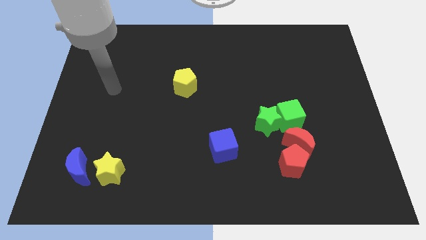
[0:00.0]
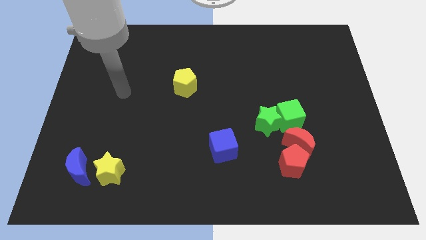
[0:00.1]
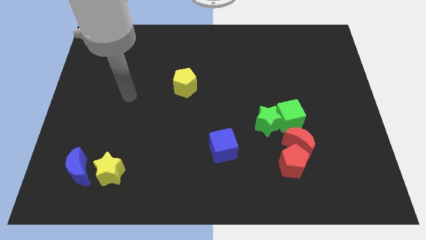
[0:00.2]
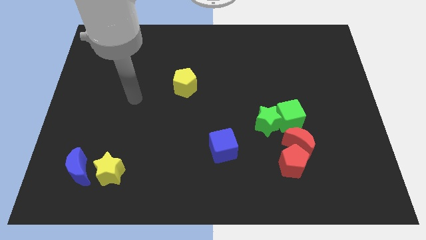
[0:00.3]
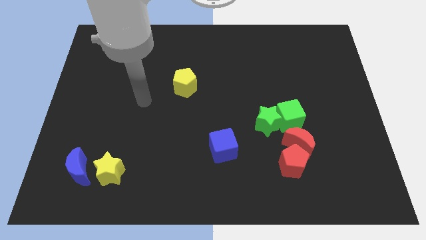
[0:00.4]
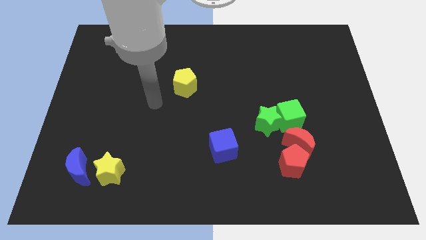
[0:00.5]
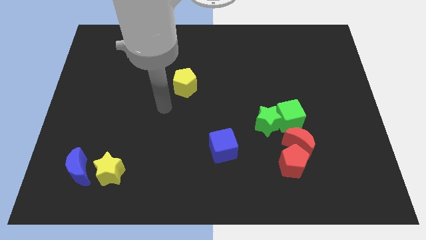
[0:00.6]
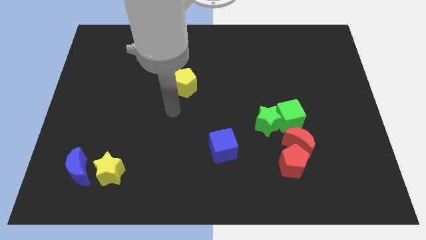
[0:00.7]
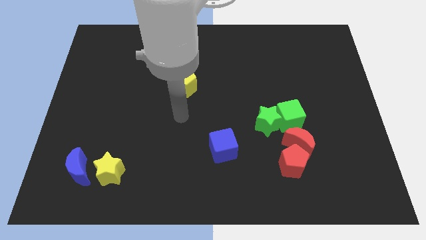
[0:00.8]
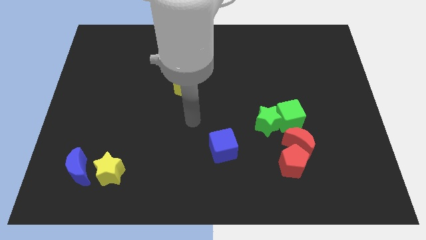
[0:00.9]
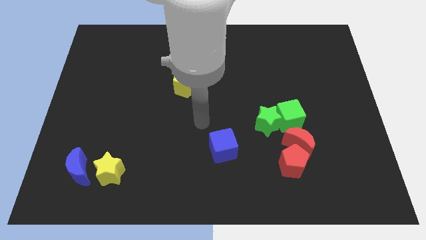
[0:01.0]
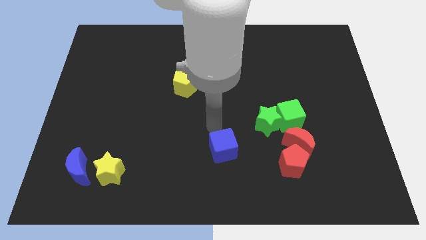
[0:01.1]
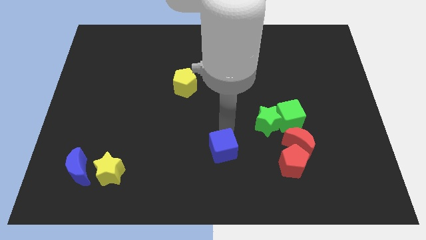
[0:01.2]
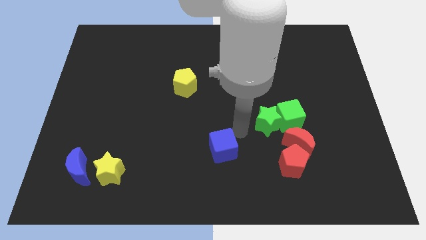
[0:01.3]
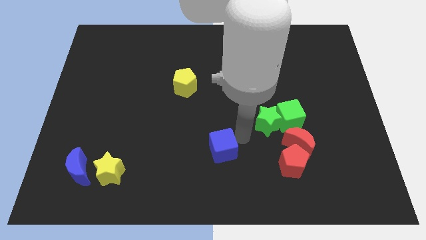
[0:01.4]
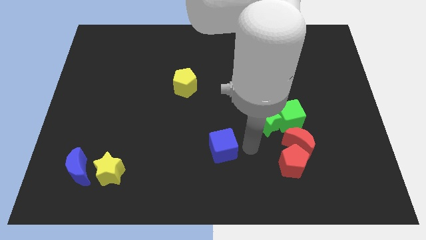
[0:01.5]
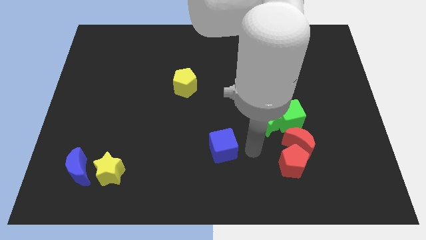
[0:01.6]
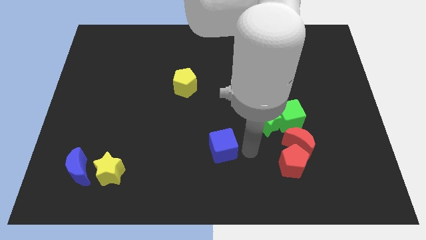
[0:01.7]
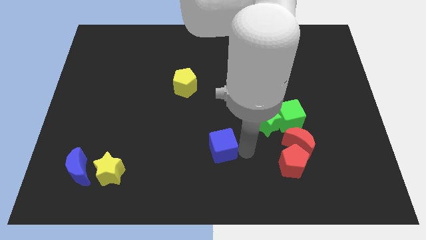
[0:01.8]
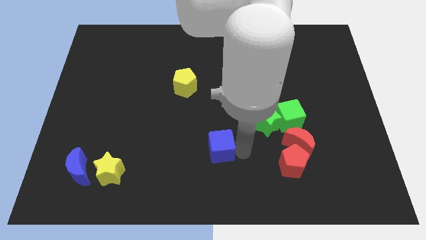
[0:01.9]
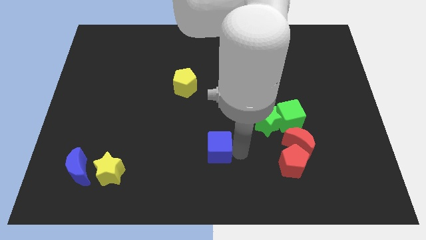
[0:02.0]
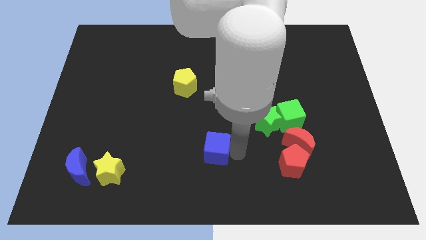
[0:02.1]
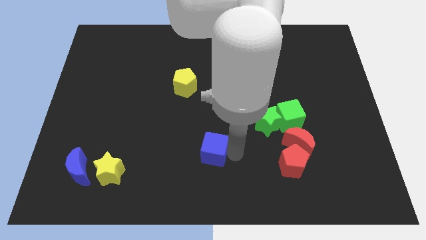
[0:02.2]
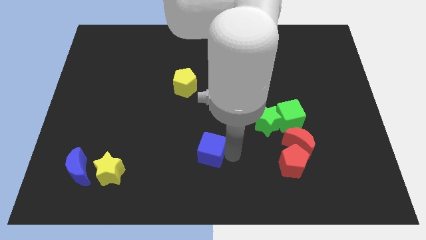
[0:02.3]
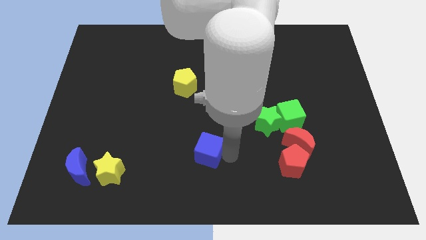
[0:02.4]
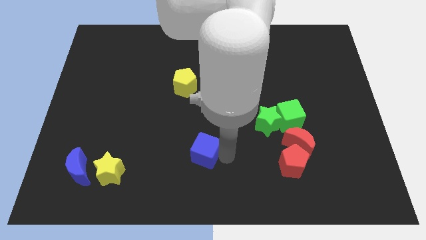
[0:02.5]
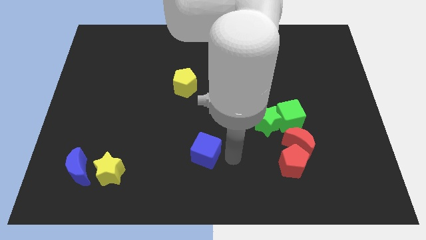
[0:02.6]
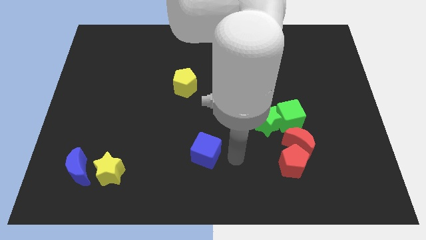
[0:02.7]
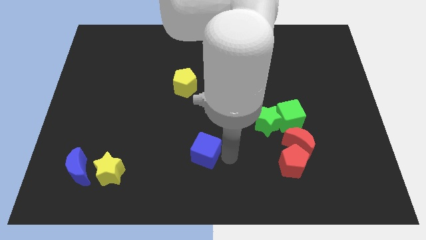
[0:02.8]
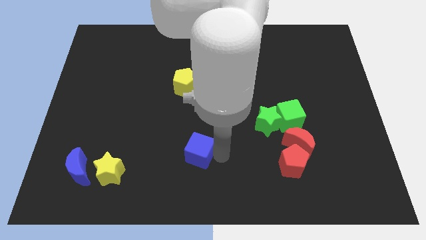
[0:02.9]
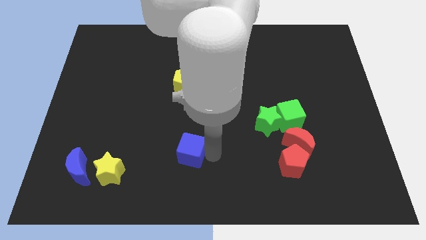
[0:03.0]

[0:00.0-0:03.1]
move the blue cube a little bit left

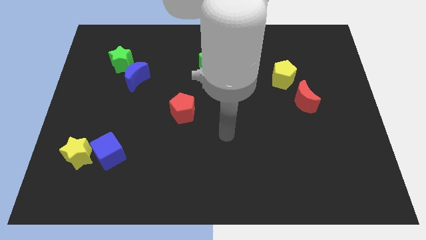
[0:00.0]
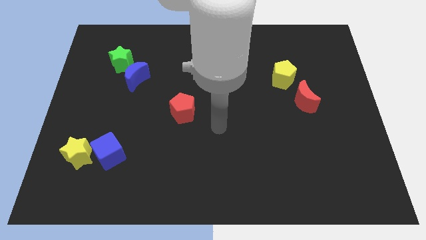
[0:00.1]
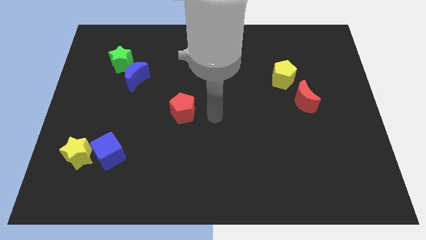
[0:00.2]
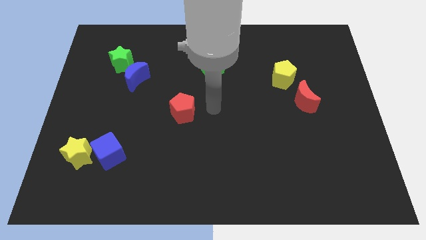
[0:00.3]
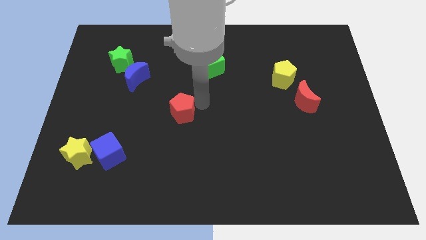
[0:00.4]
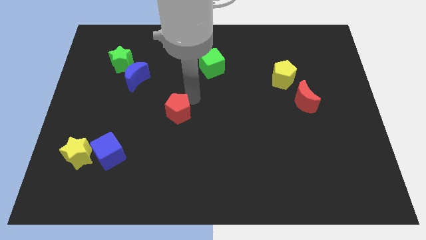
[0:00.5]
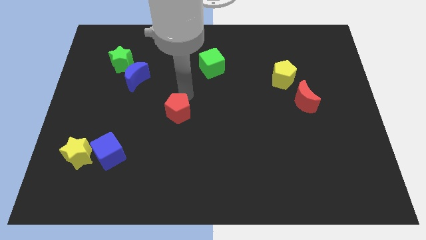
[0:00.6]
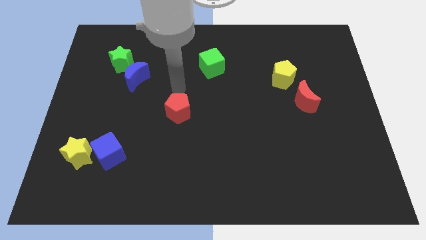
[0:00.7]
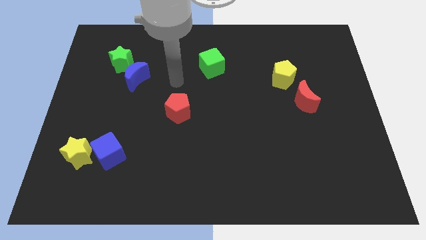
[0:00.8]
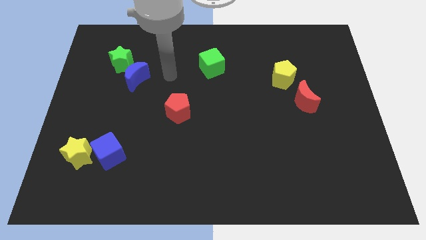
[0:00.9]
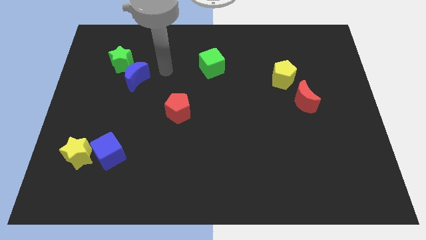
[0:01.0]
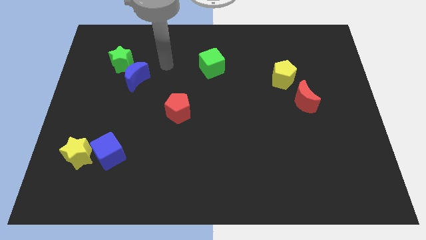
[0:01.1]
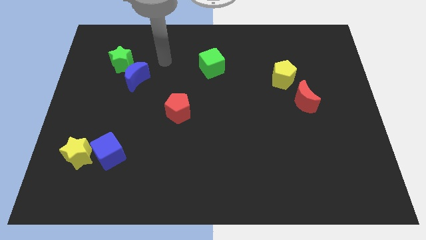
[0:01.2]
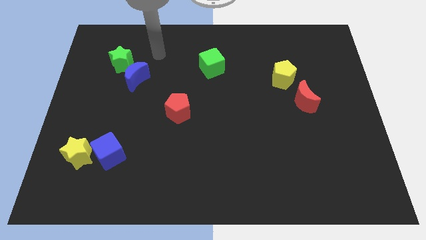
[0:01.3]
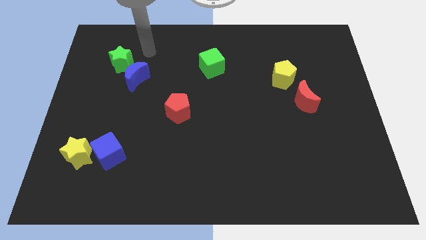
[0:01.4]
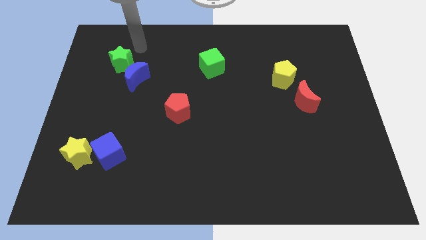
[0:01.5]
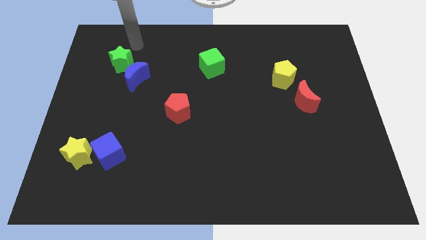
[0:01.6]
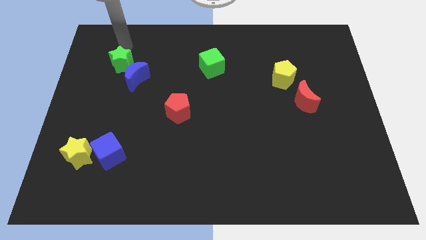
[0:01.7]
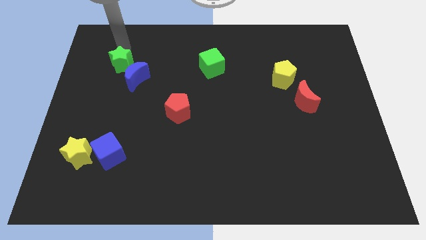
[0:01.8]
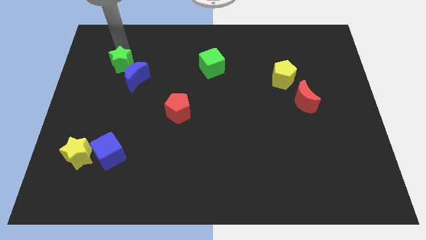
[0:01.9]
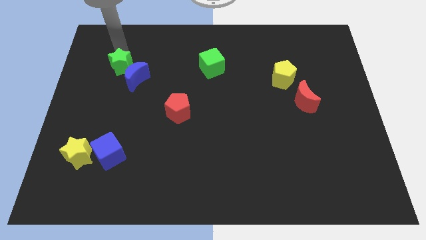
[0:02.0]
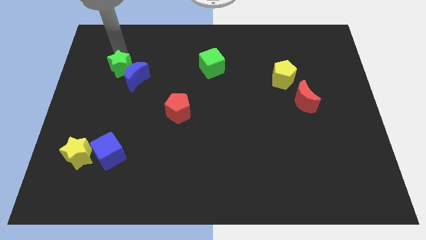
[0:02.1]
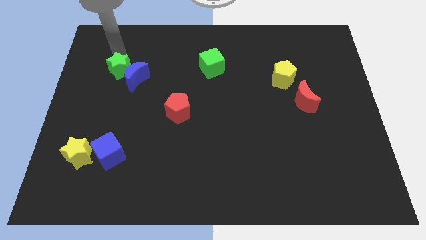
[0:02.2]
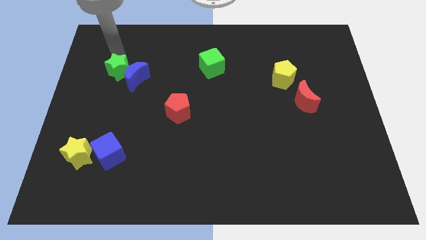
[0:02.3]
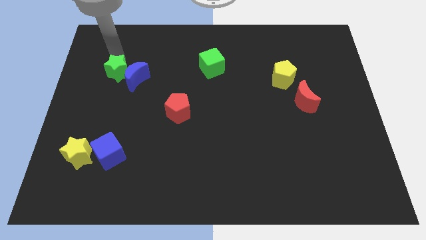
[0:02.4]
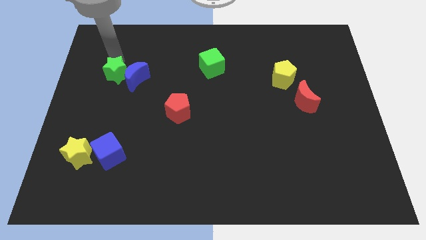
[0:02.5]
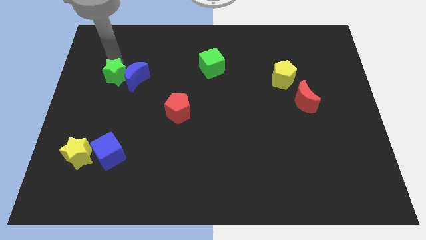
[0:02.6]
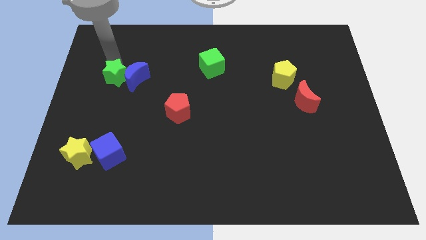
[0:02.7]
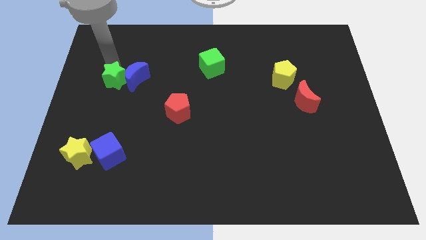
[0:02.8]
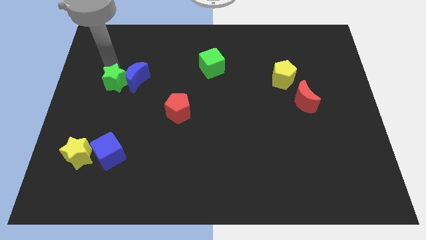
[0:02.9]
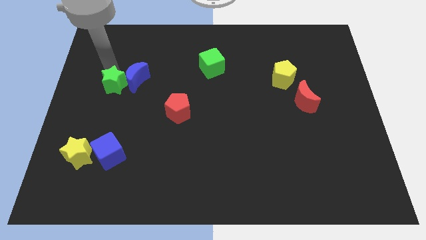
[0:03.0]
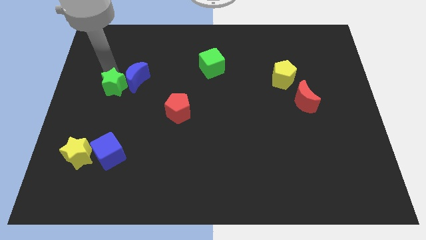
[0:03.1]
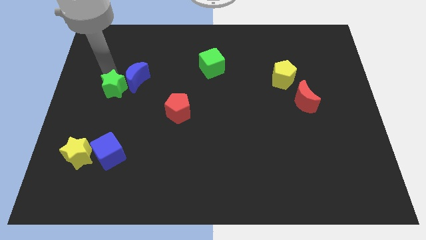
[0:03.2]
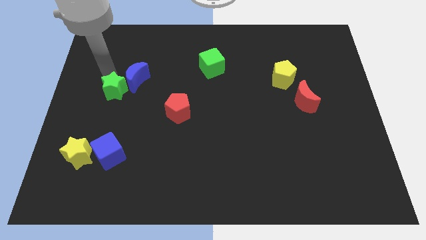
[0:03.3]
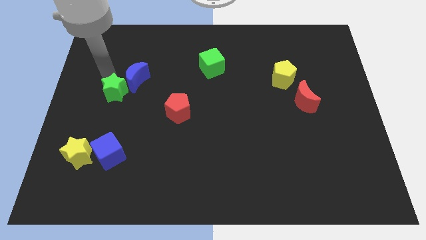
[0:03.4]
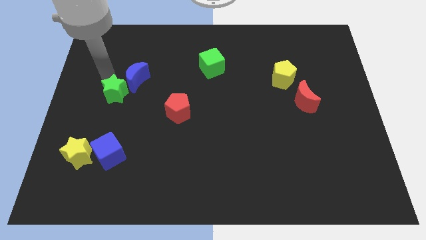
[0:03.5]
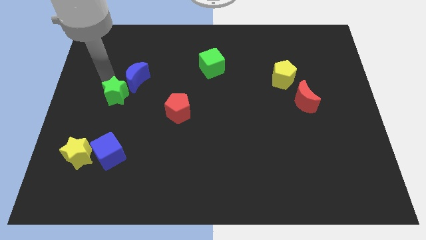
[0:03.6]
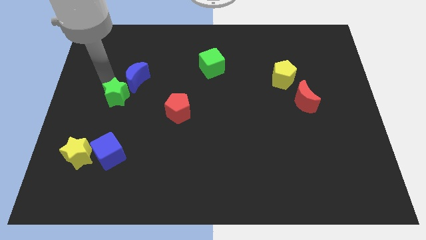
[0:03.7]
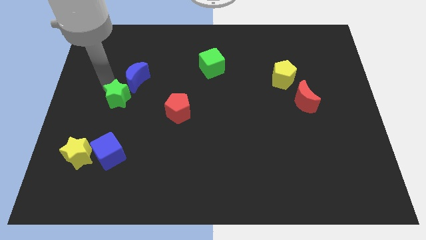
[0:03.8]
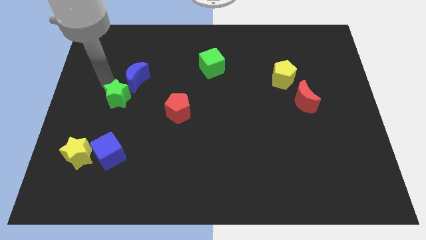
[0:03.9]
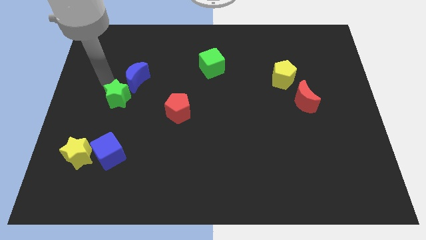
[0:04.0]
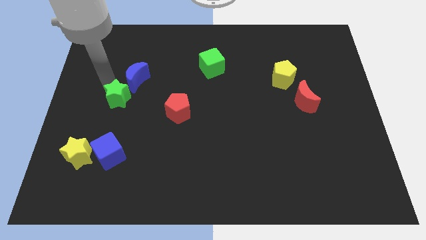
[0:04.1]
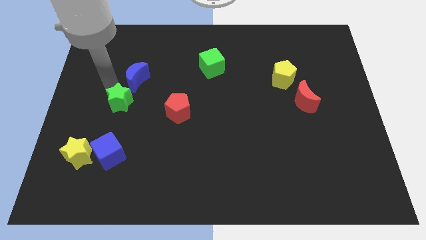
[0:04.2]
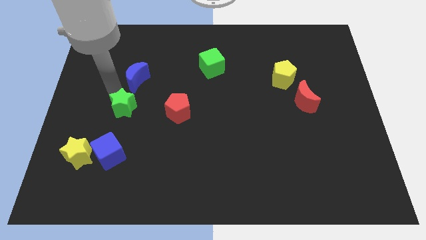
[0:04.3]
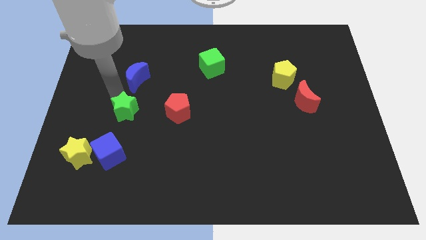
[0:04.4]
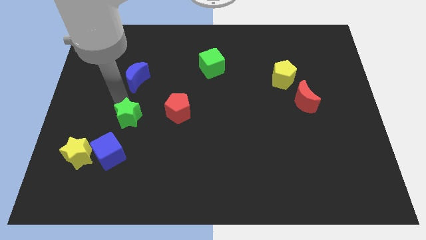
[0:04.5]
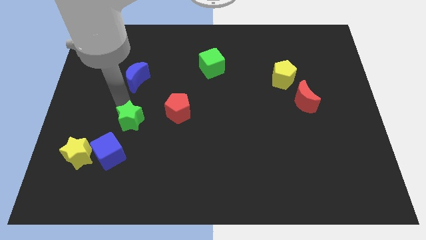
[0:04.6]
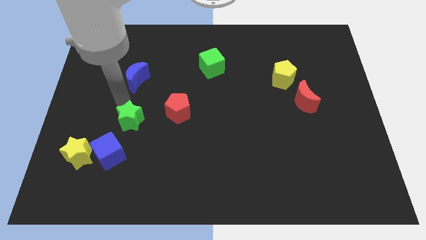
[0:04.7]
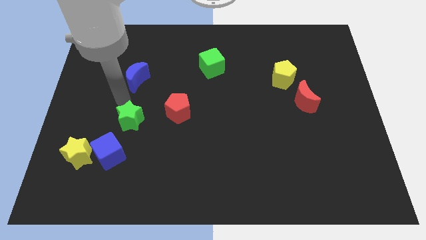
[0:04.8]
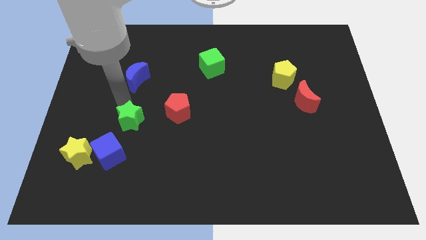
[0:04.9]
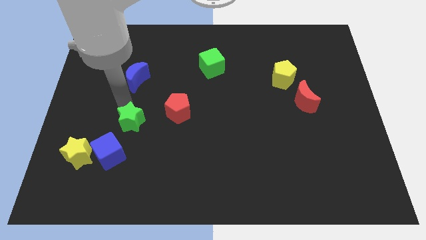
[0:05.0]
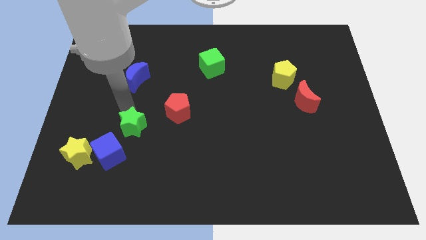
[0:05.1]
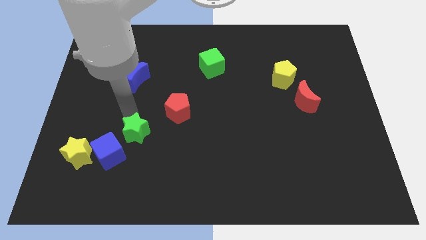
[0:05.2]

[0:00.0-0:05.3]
push the green star down
